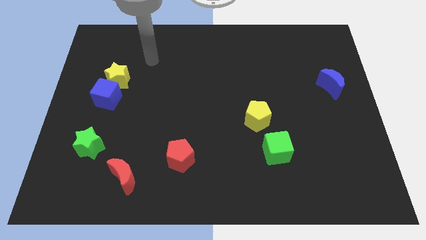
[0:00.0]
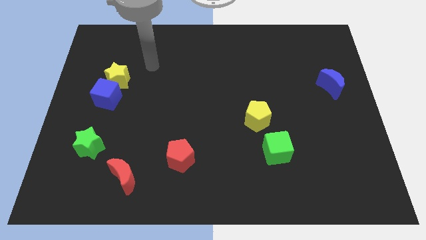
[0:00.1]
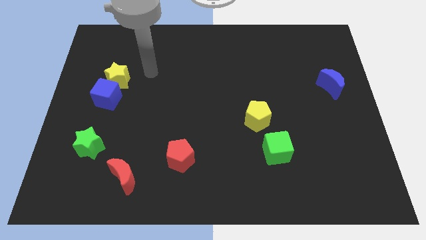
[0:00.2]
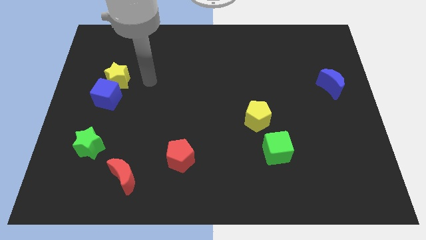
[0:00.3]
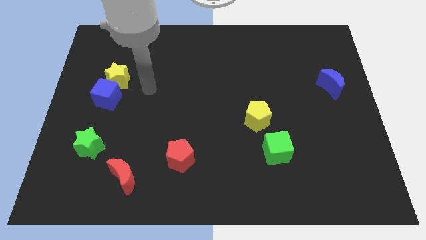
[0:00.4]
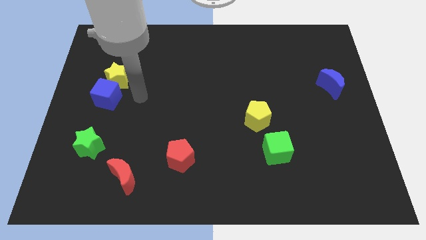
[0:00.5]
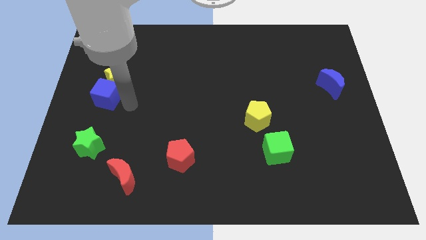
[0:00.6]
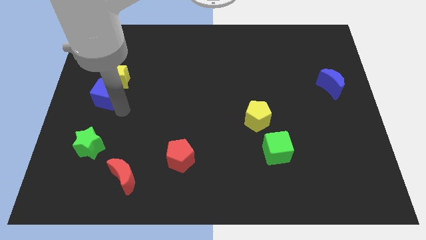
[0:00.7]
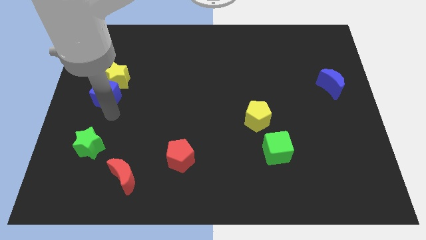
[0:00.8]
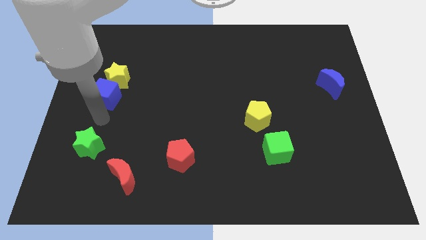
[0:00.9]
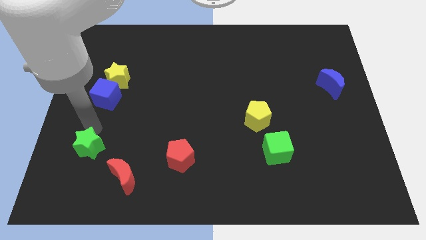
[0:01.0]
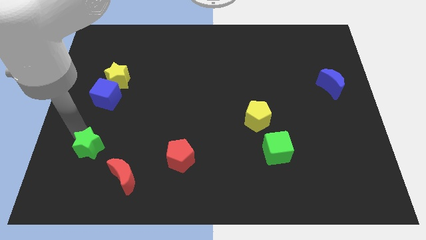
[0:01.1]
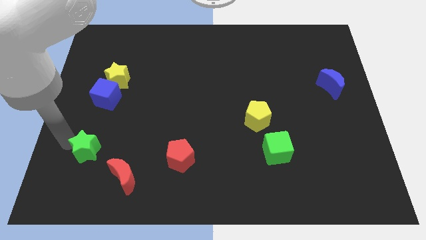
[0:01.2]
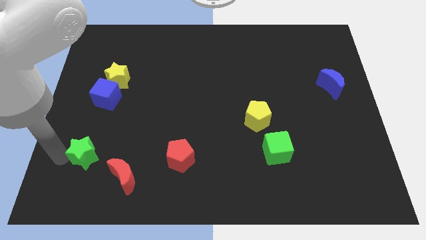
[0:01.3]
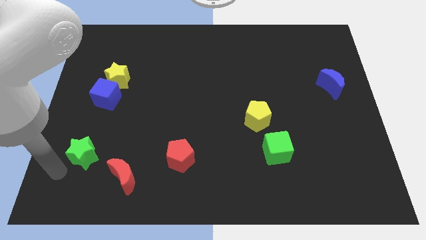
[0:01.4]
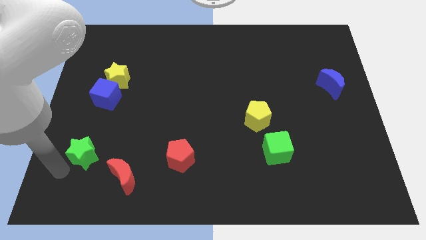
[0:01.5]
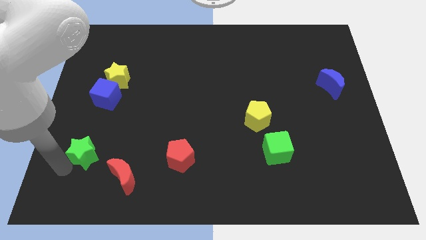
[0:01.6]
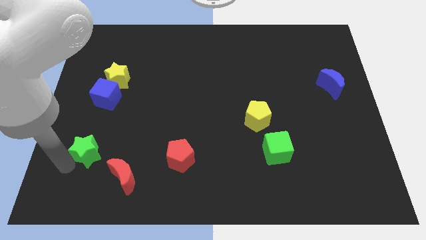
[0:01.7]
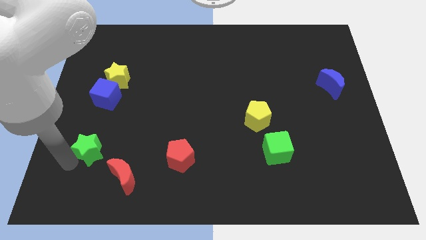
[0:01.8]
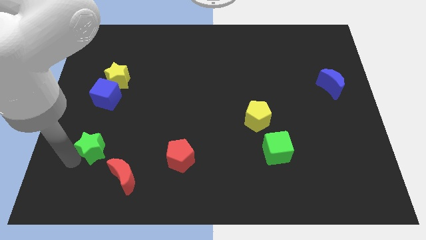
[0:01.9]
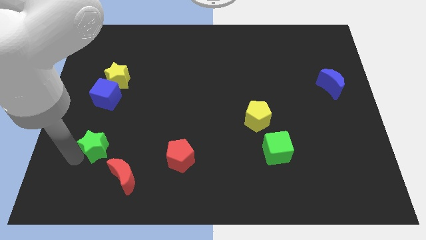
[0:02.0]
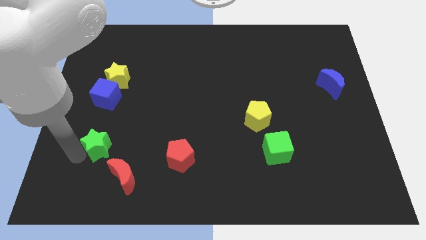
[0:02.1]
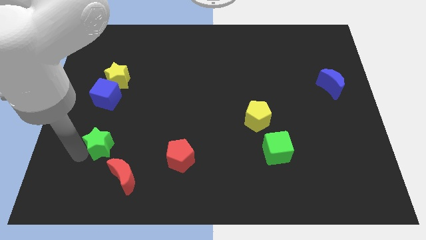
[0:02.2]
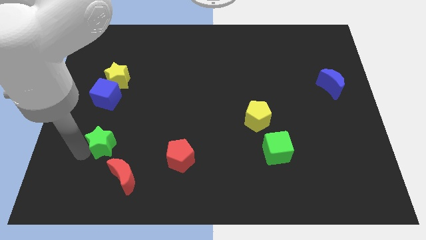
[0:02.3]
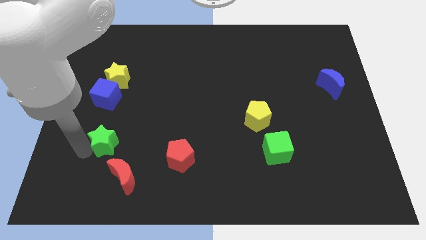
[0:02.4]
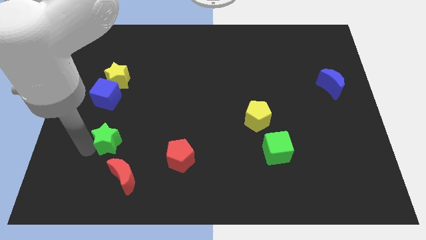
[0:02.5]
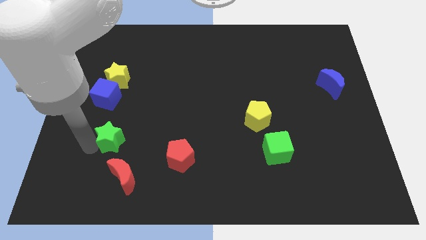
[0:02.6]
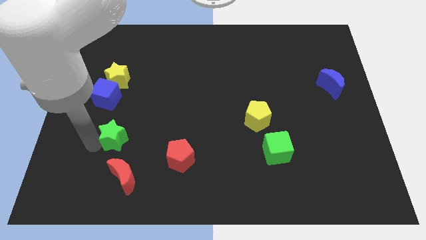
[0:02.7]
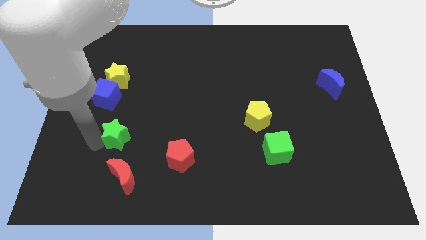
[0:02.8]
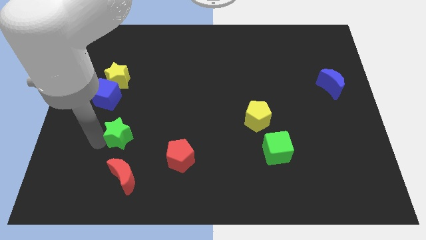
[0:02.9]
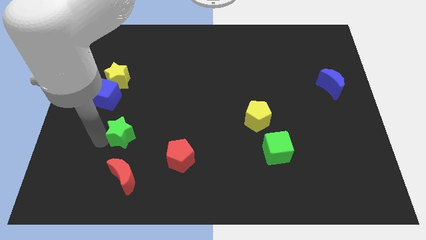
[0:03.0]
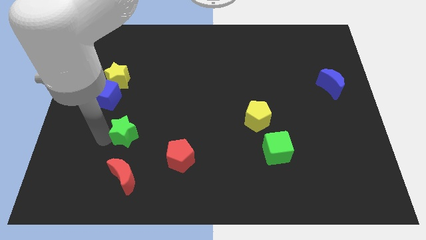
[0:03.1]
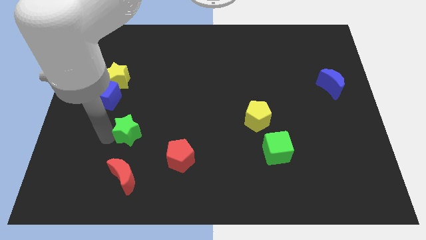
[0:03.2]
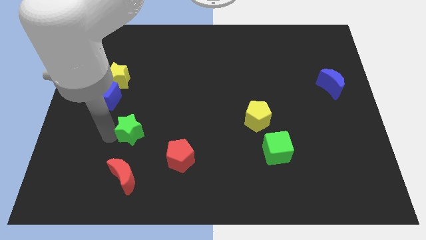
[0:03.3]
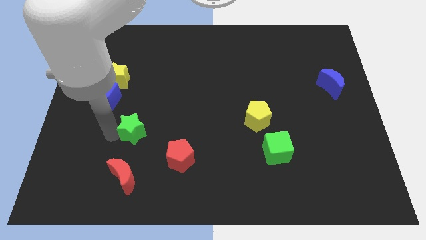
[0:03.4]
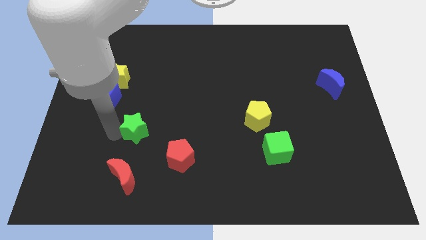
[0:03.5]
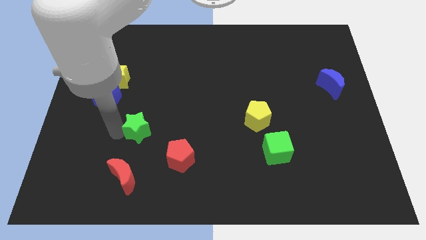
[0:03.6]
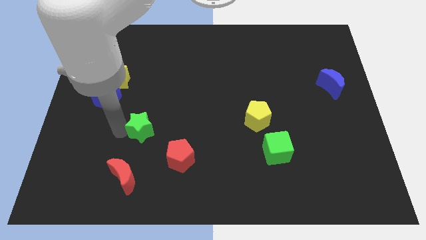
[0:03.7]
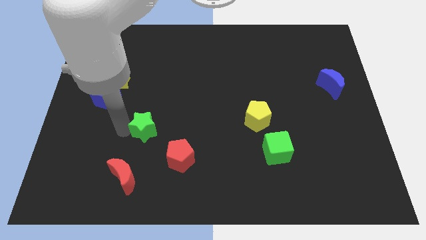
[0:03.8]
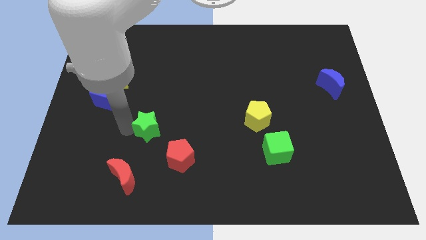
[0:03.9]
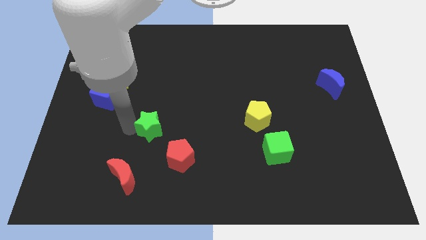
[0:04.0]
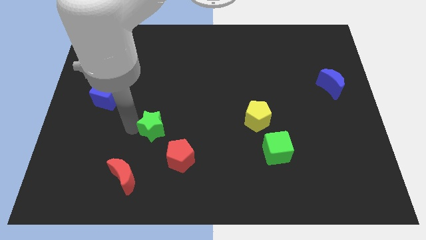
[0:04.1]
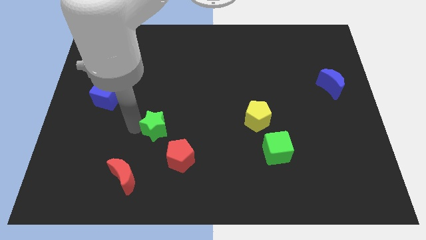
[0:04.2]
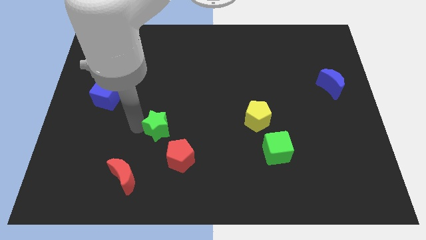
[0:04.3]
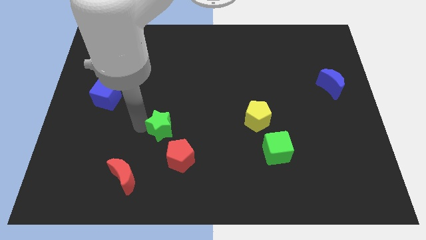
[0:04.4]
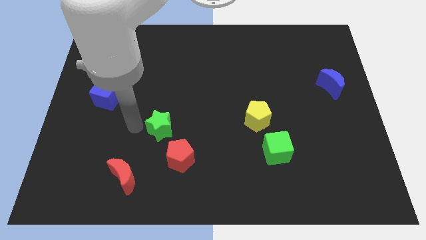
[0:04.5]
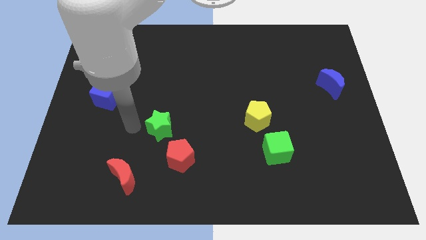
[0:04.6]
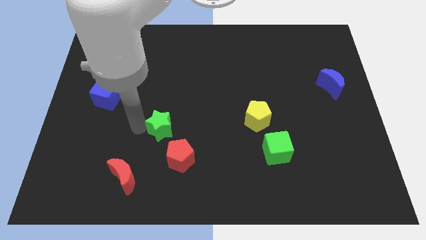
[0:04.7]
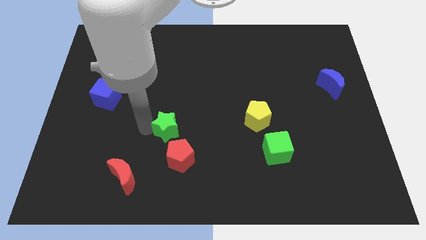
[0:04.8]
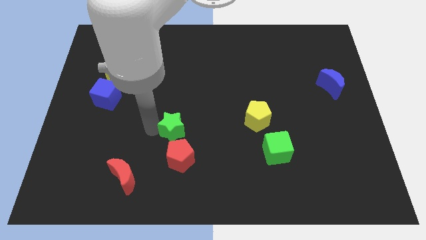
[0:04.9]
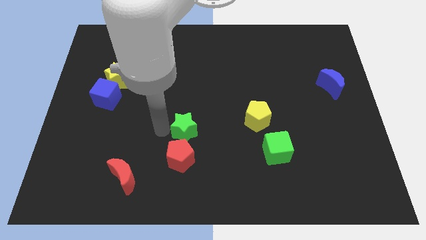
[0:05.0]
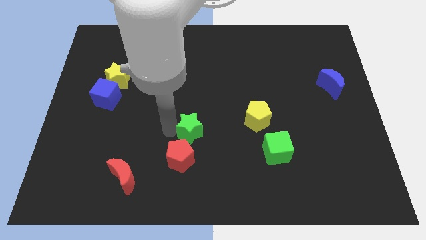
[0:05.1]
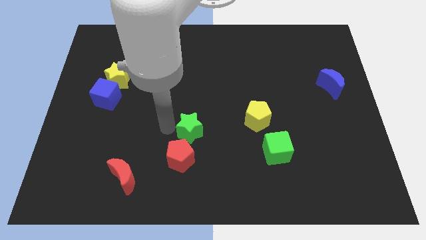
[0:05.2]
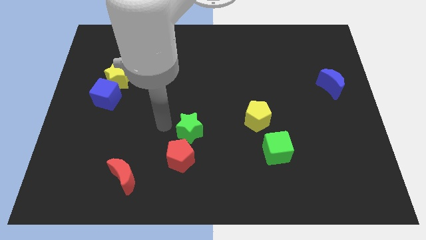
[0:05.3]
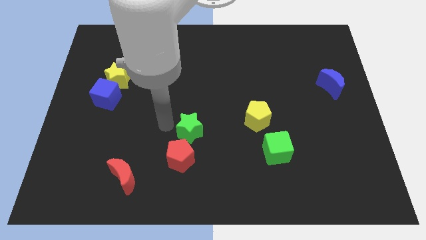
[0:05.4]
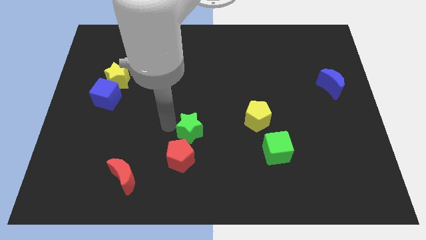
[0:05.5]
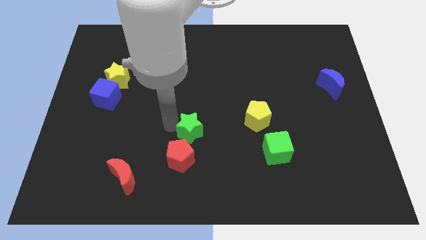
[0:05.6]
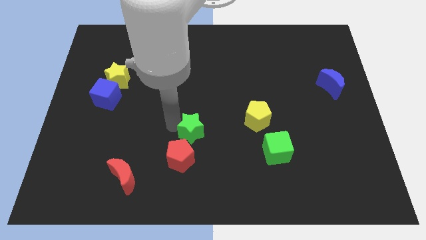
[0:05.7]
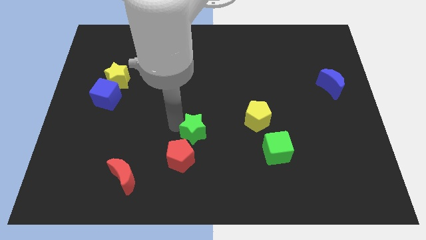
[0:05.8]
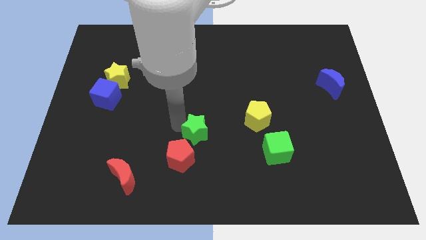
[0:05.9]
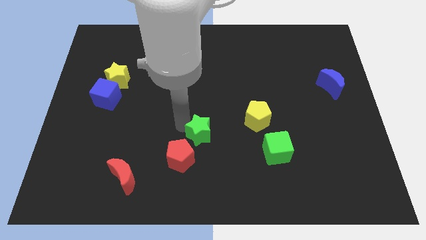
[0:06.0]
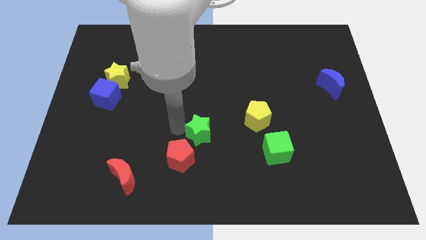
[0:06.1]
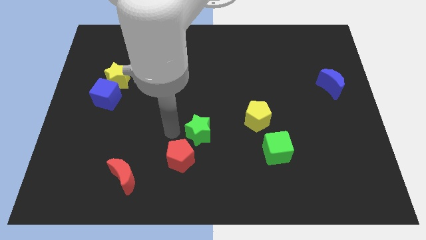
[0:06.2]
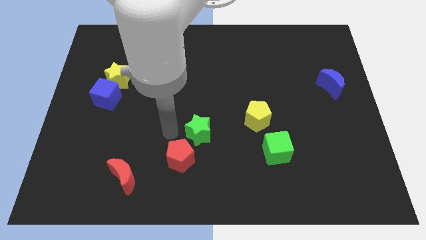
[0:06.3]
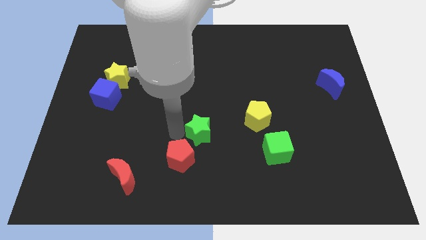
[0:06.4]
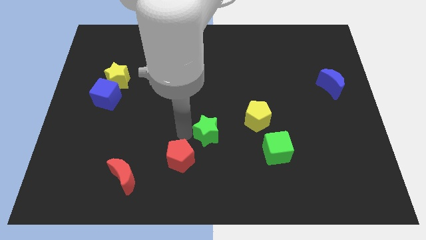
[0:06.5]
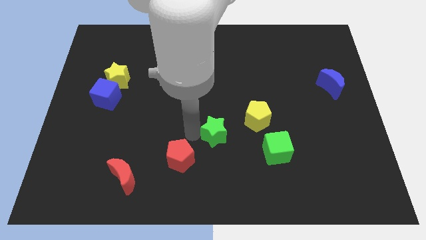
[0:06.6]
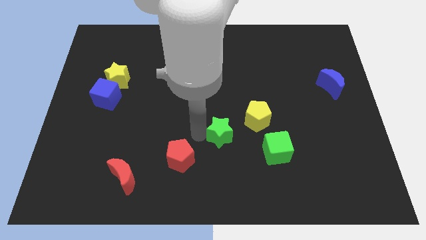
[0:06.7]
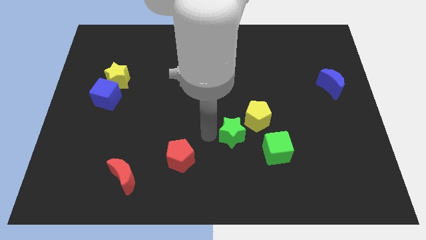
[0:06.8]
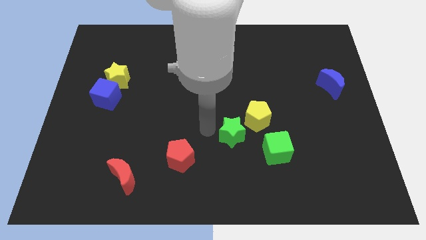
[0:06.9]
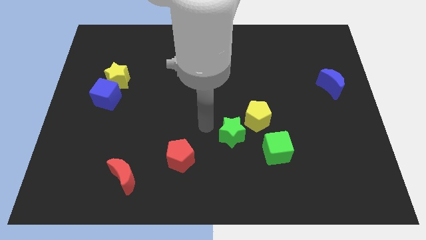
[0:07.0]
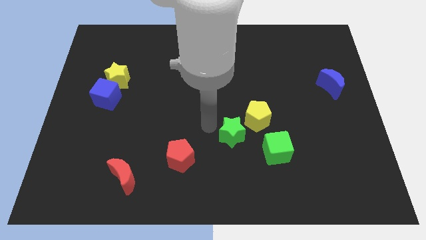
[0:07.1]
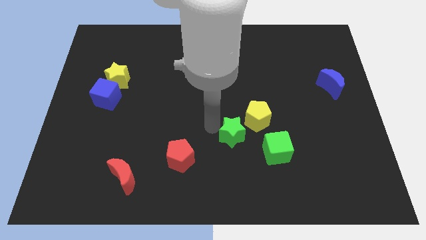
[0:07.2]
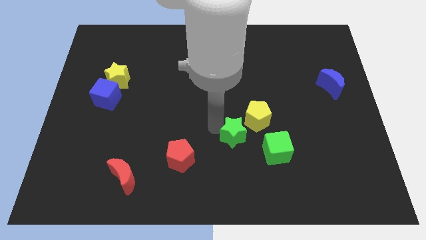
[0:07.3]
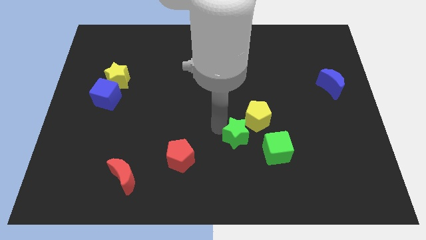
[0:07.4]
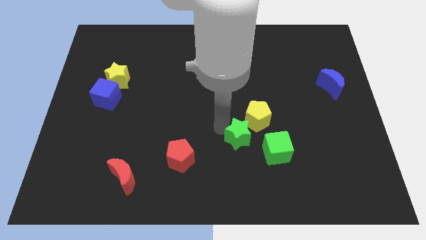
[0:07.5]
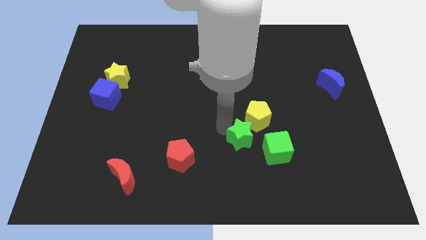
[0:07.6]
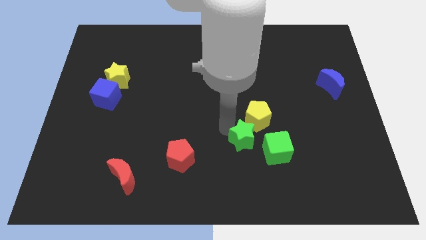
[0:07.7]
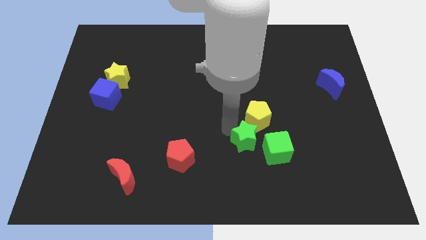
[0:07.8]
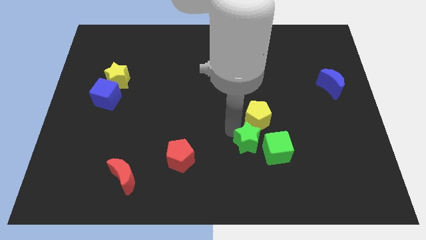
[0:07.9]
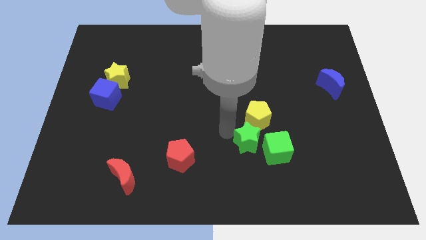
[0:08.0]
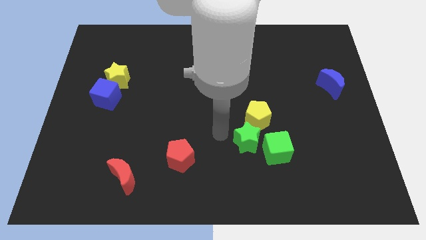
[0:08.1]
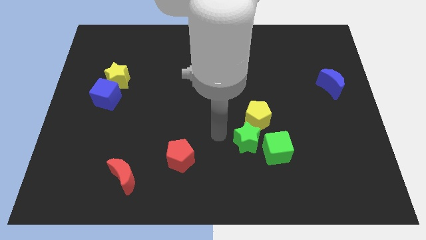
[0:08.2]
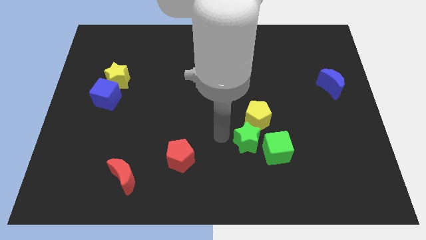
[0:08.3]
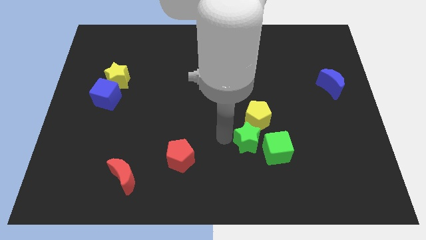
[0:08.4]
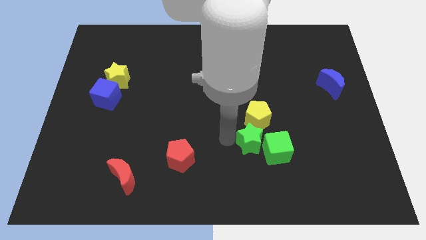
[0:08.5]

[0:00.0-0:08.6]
slide the green star towards the green cube
